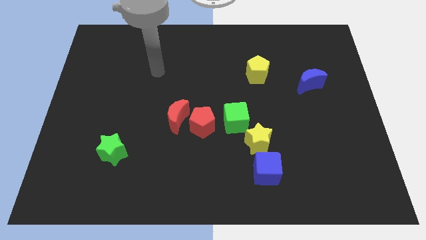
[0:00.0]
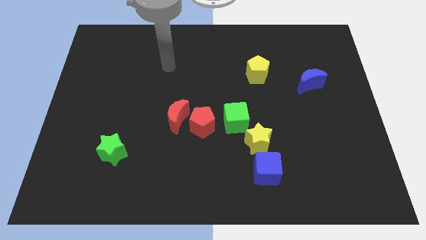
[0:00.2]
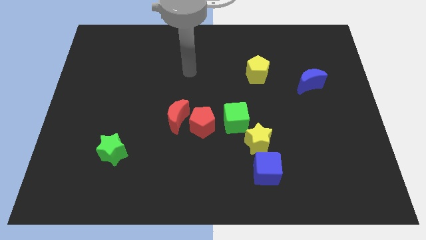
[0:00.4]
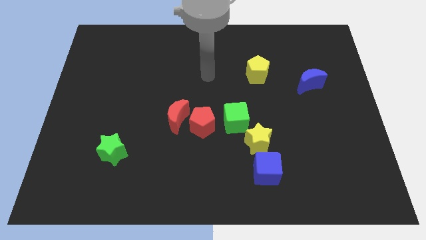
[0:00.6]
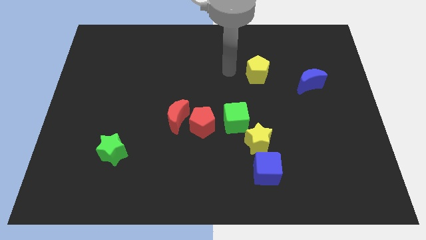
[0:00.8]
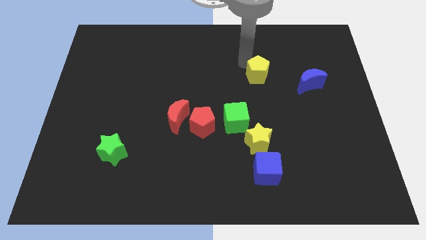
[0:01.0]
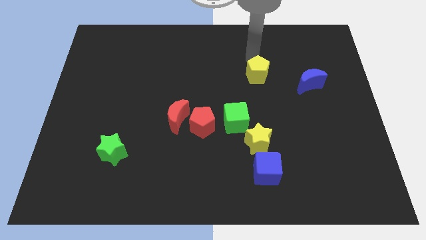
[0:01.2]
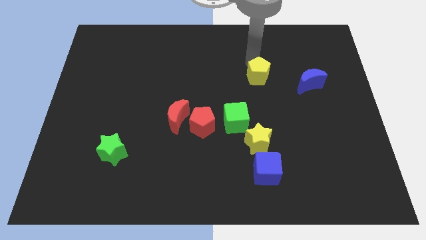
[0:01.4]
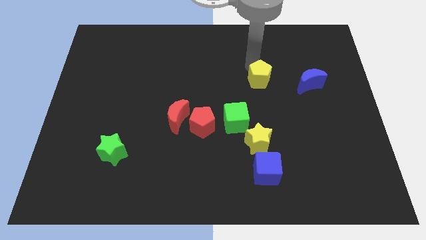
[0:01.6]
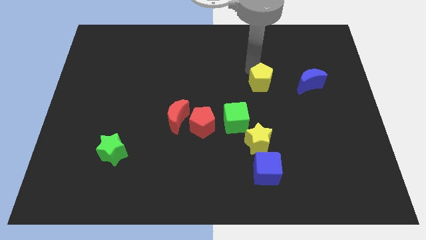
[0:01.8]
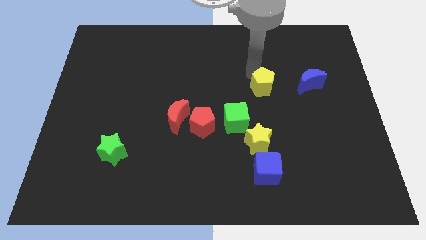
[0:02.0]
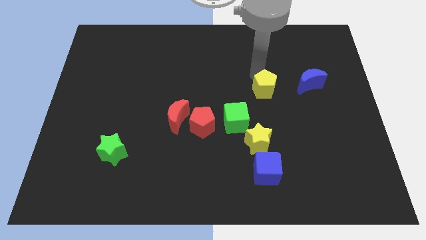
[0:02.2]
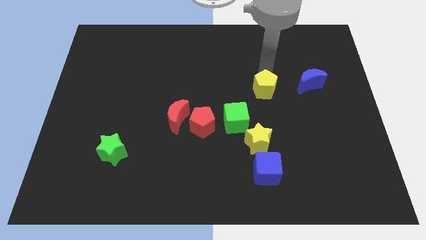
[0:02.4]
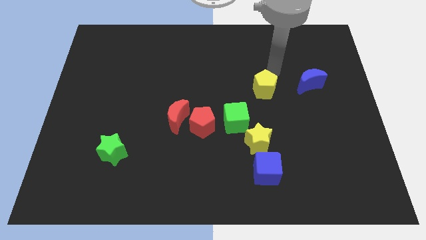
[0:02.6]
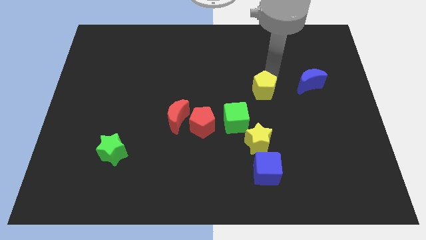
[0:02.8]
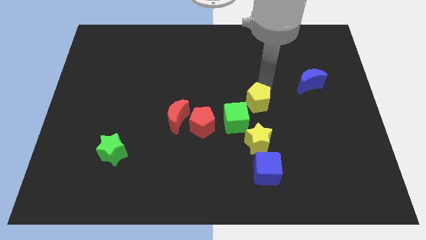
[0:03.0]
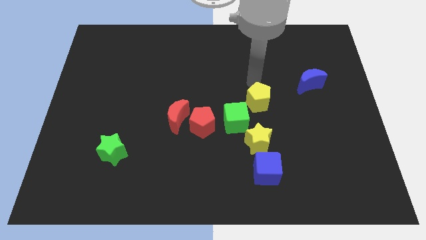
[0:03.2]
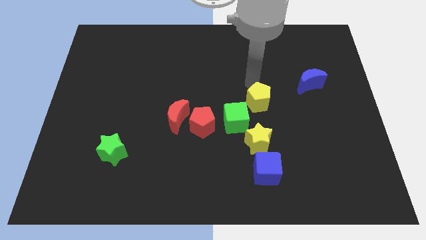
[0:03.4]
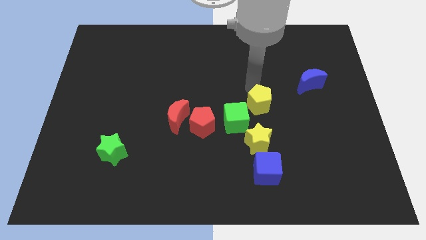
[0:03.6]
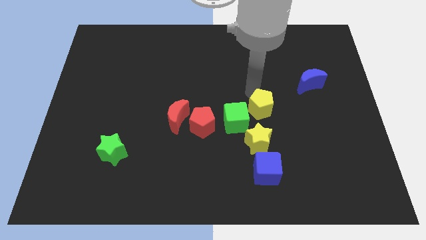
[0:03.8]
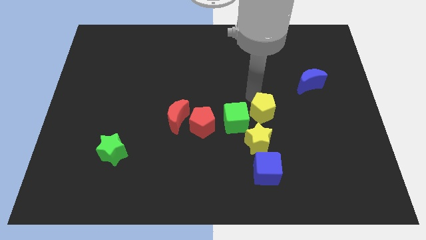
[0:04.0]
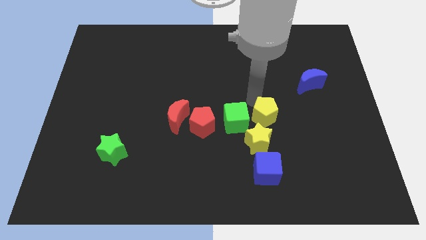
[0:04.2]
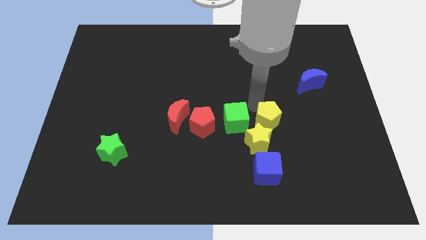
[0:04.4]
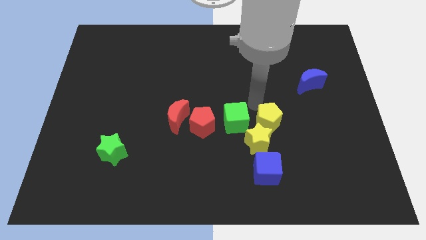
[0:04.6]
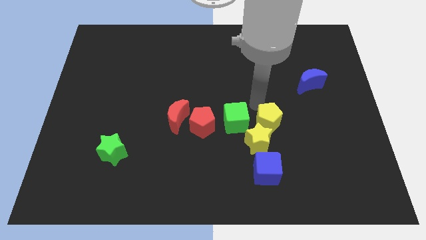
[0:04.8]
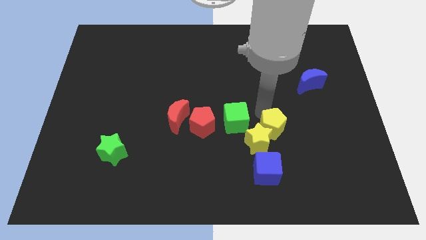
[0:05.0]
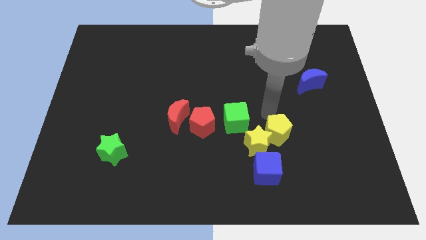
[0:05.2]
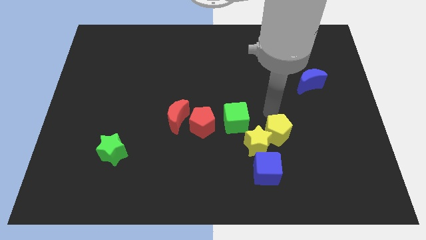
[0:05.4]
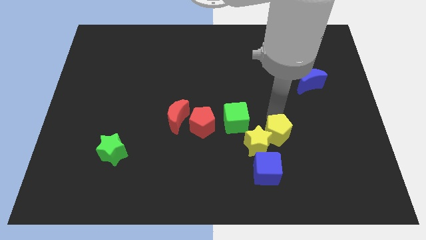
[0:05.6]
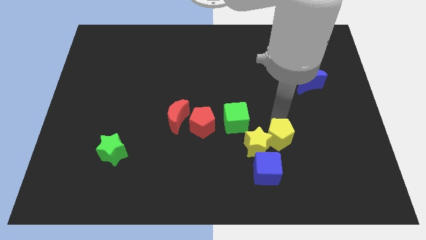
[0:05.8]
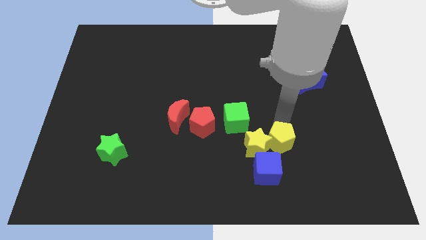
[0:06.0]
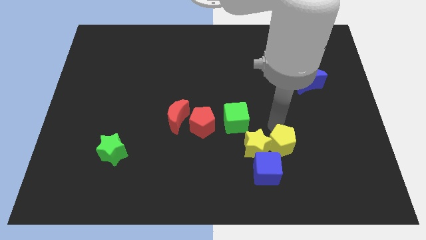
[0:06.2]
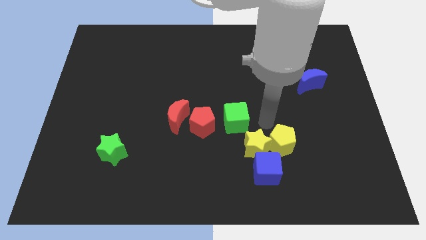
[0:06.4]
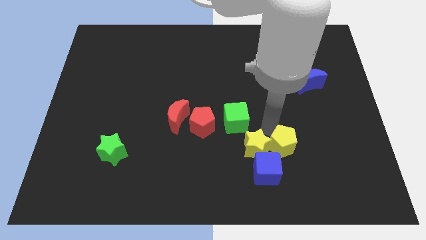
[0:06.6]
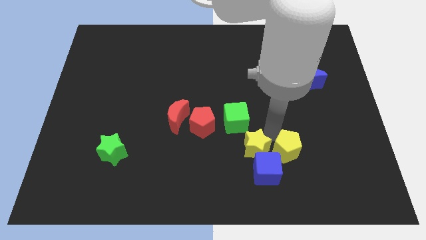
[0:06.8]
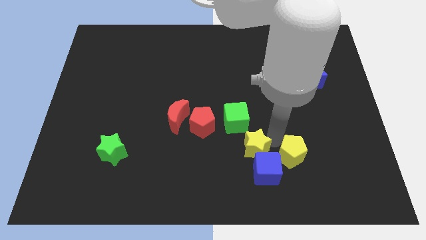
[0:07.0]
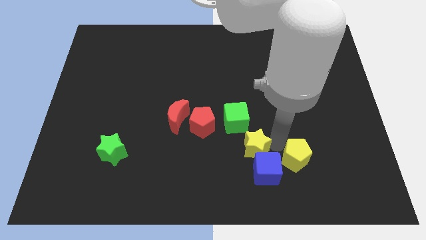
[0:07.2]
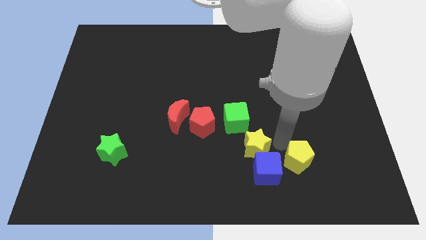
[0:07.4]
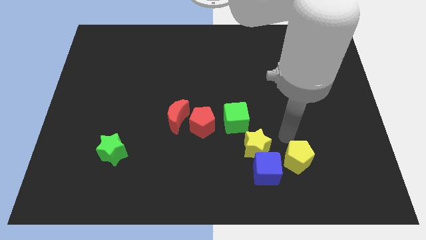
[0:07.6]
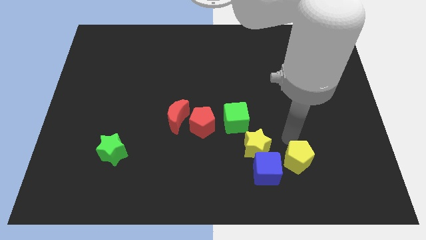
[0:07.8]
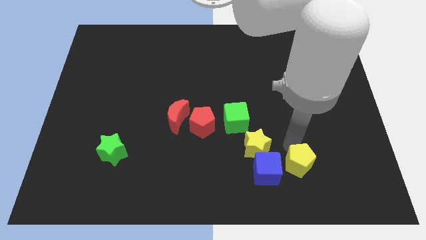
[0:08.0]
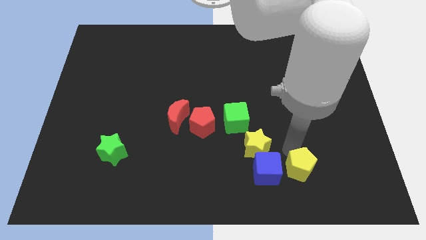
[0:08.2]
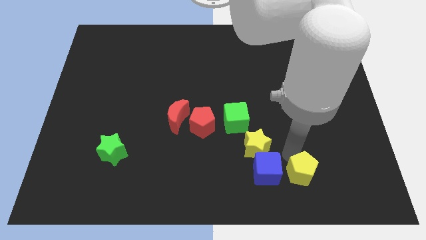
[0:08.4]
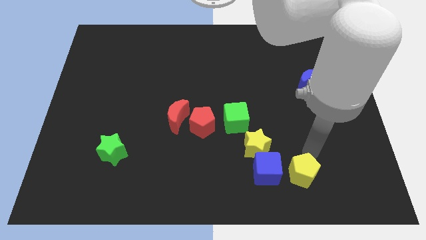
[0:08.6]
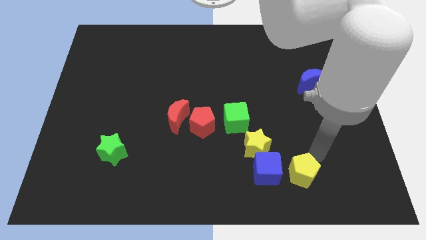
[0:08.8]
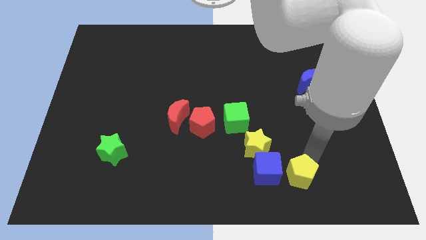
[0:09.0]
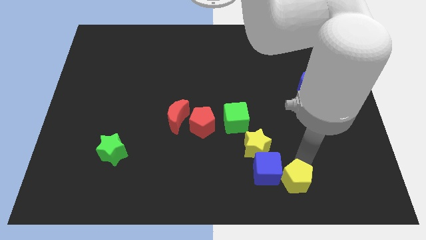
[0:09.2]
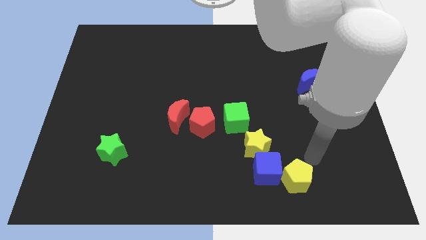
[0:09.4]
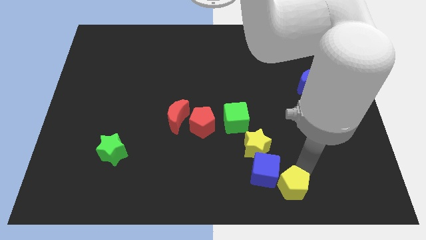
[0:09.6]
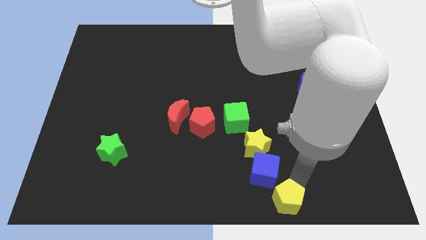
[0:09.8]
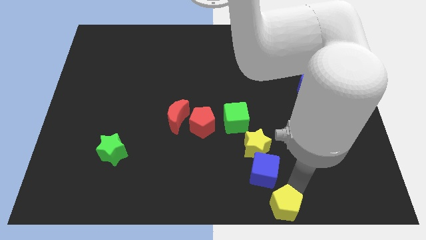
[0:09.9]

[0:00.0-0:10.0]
push the yellow pentagon to the bottom

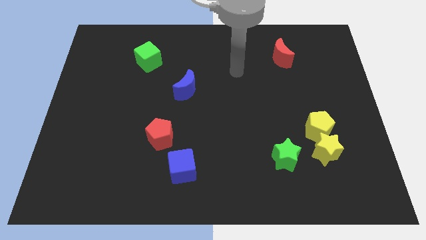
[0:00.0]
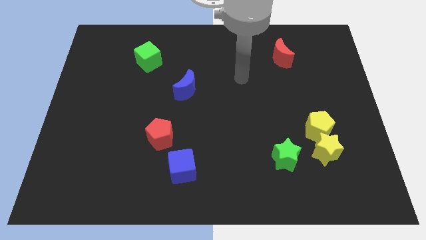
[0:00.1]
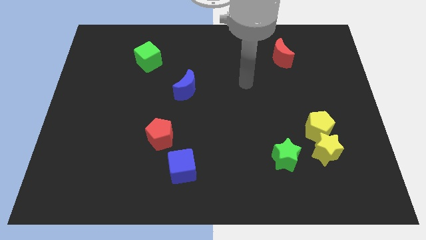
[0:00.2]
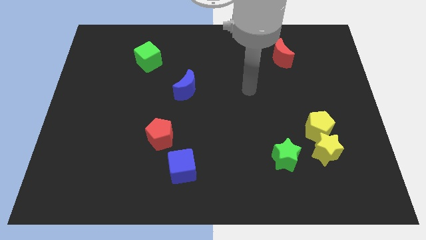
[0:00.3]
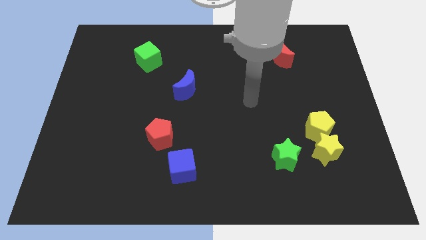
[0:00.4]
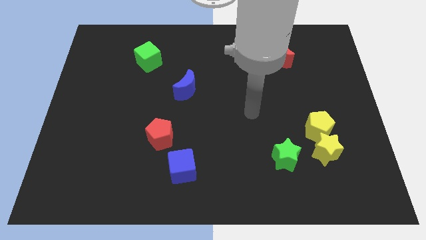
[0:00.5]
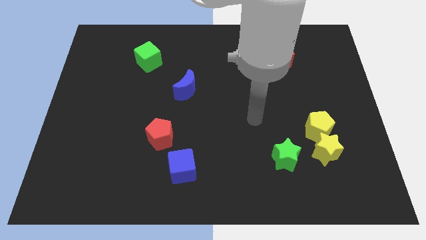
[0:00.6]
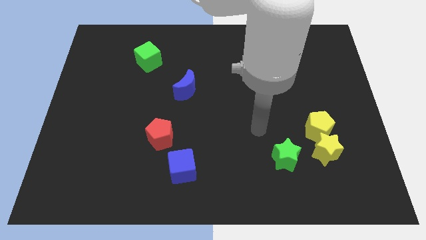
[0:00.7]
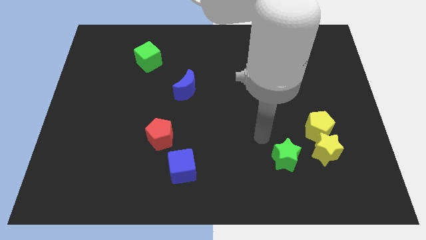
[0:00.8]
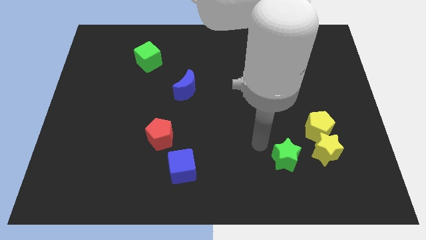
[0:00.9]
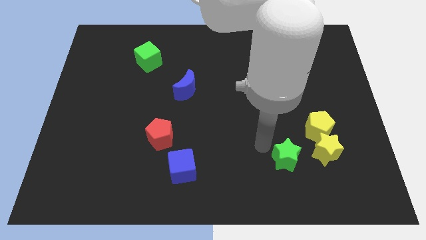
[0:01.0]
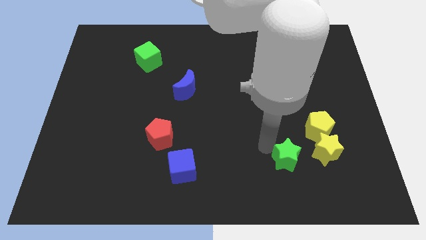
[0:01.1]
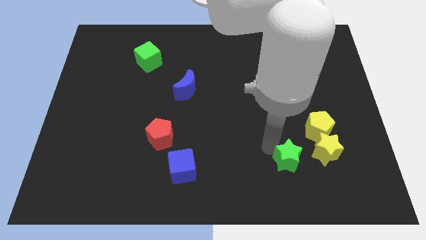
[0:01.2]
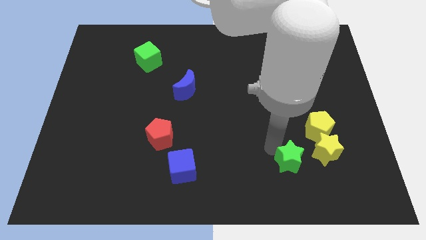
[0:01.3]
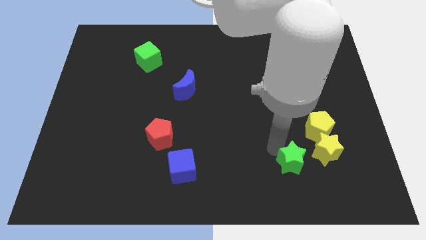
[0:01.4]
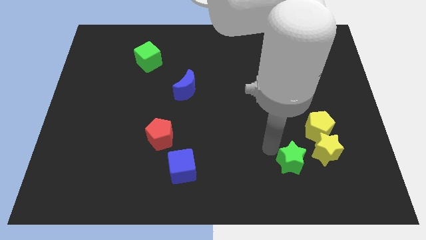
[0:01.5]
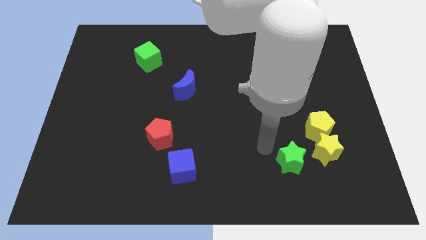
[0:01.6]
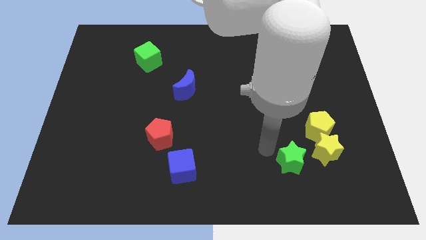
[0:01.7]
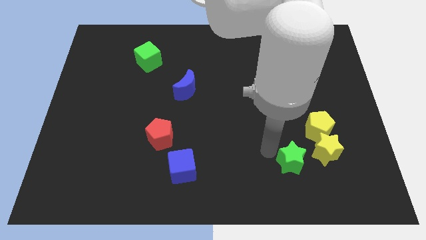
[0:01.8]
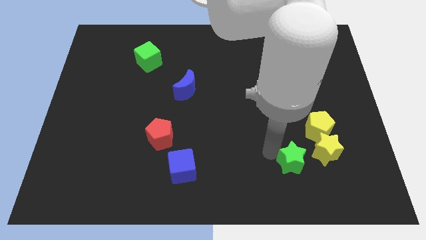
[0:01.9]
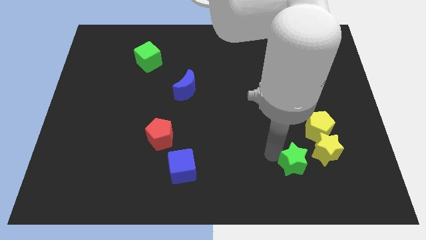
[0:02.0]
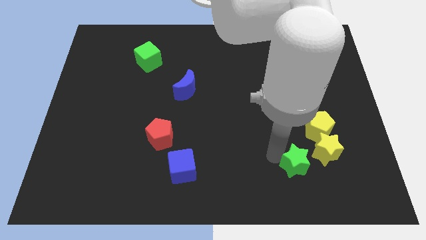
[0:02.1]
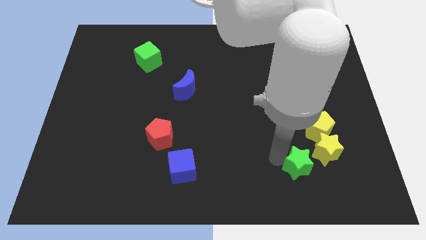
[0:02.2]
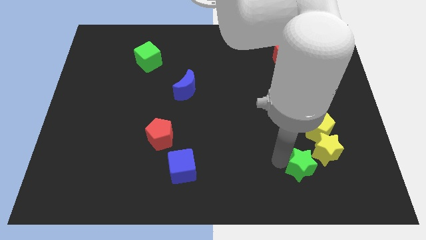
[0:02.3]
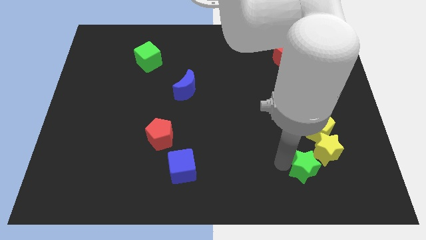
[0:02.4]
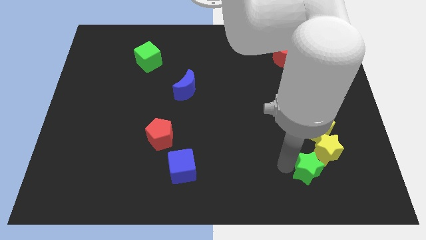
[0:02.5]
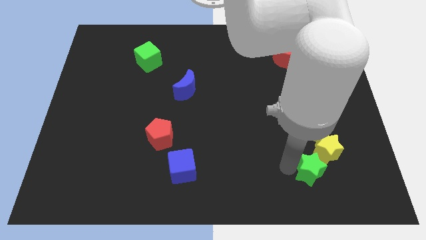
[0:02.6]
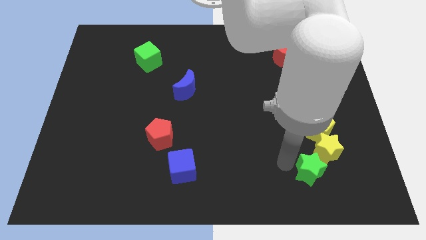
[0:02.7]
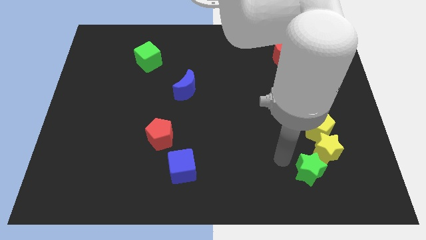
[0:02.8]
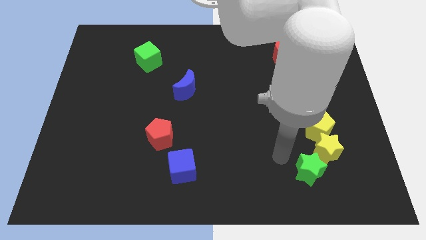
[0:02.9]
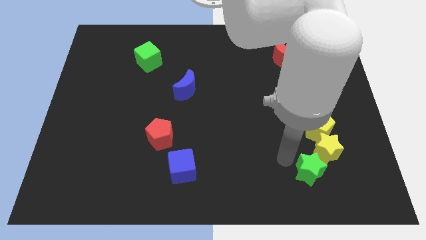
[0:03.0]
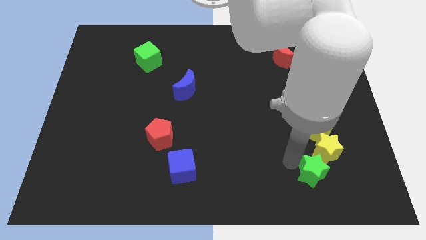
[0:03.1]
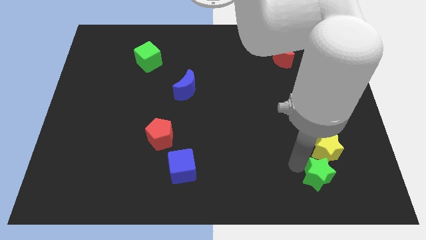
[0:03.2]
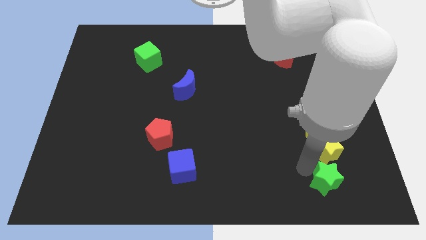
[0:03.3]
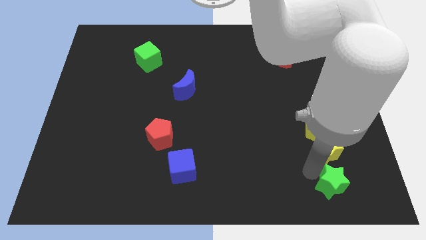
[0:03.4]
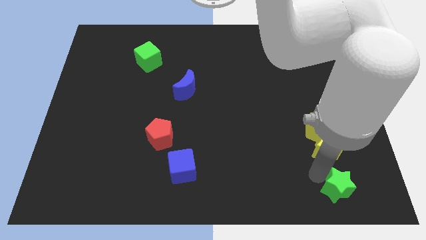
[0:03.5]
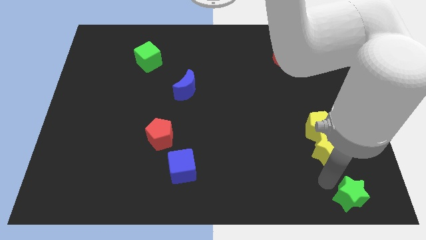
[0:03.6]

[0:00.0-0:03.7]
put the green star to the bottom right
